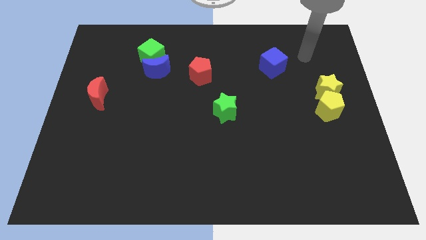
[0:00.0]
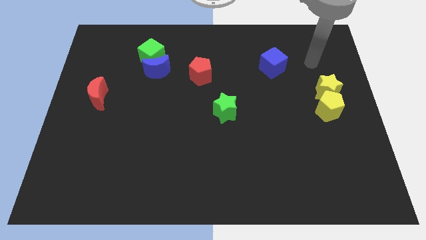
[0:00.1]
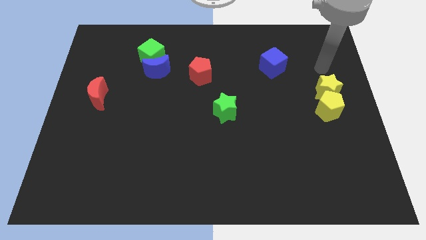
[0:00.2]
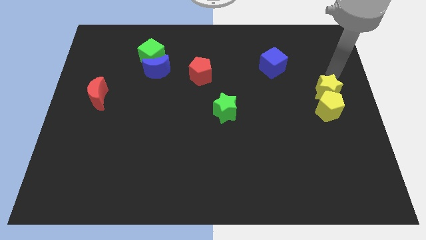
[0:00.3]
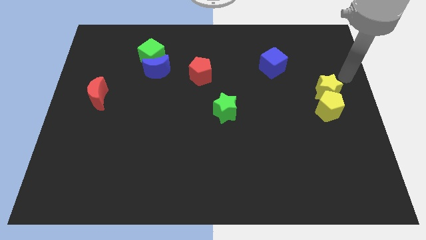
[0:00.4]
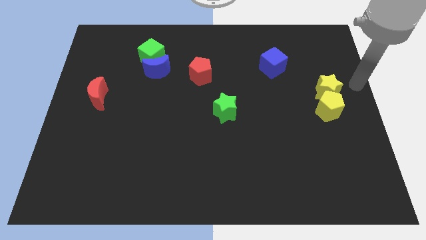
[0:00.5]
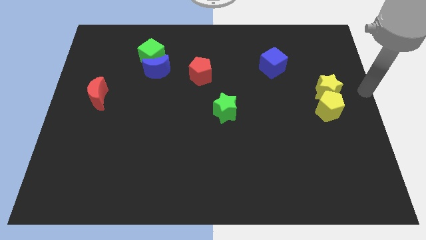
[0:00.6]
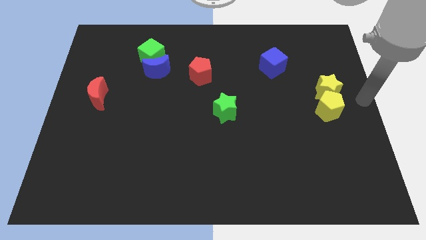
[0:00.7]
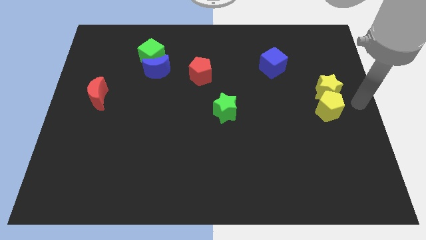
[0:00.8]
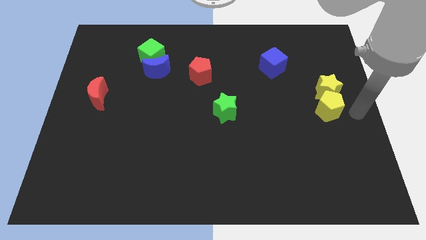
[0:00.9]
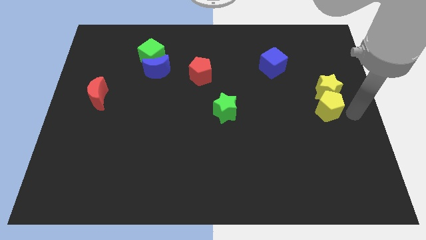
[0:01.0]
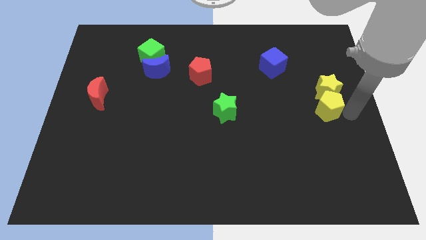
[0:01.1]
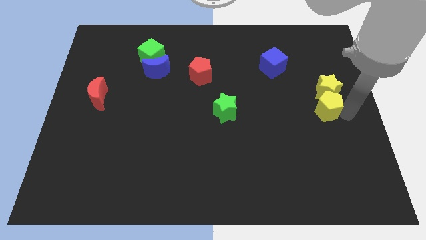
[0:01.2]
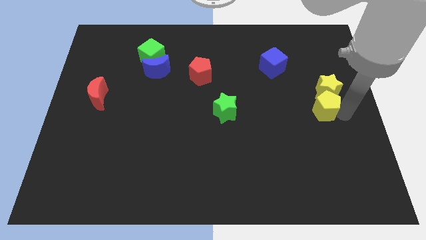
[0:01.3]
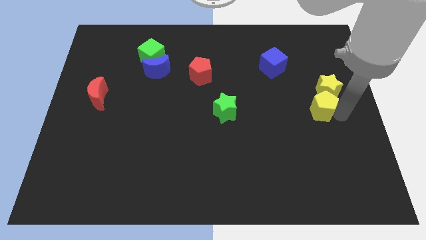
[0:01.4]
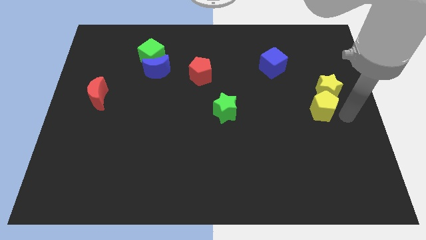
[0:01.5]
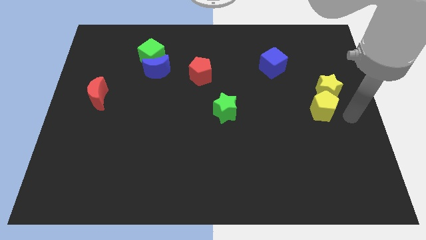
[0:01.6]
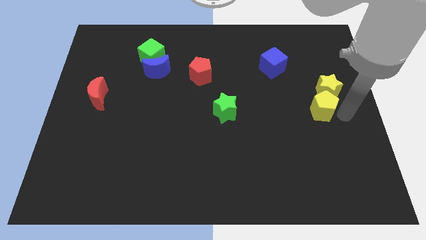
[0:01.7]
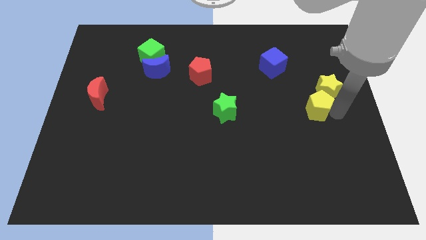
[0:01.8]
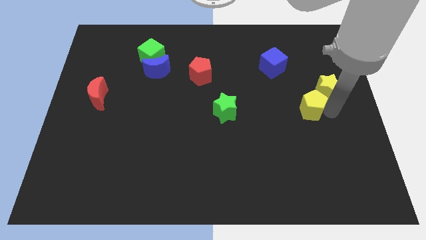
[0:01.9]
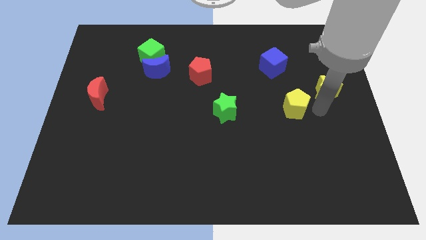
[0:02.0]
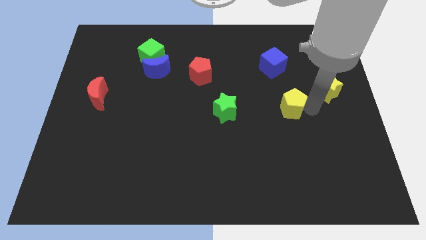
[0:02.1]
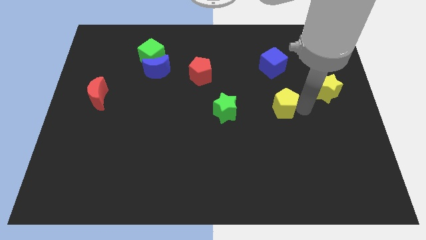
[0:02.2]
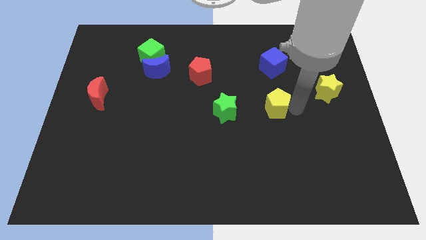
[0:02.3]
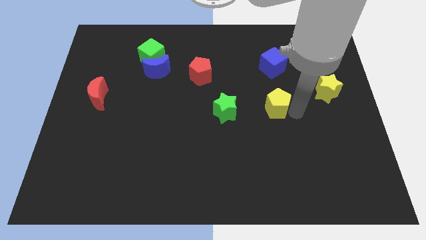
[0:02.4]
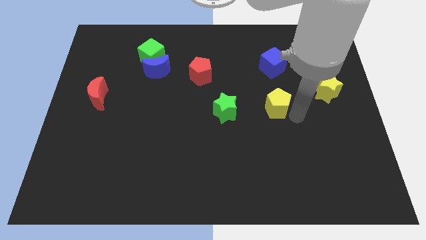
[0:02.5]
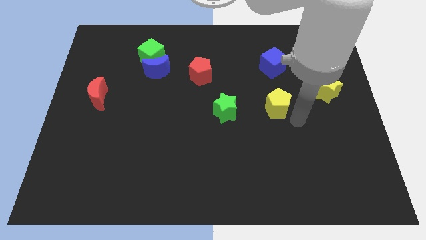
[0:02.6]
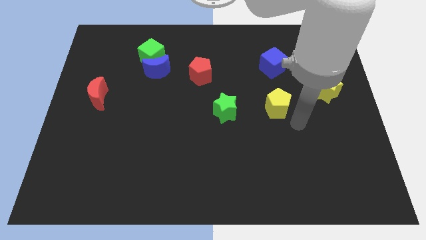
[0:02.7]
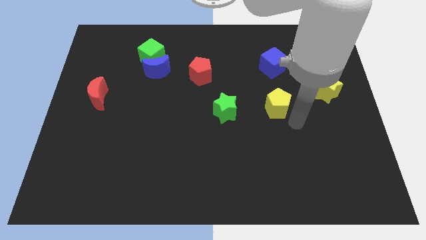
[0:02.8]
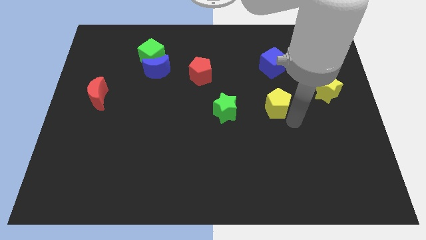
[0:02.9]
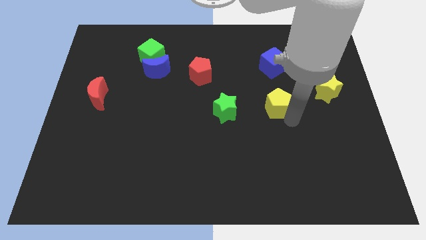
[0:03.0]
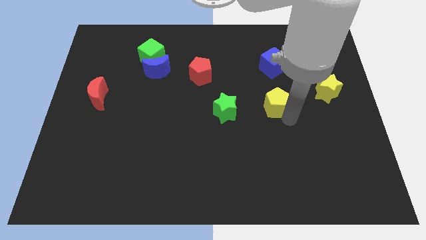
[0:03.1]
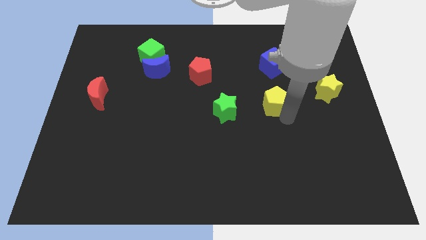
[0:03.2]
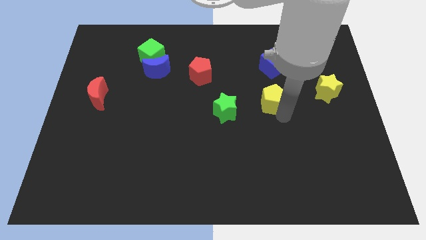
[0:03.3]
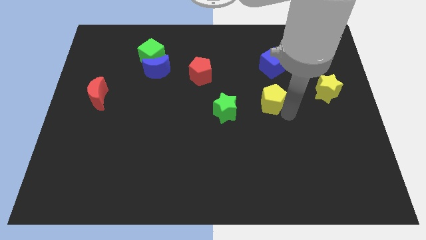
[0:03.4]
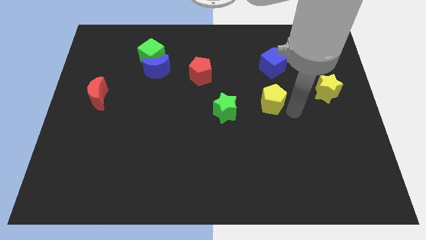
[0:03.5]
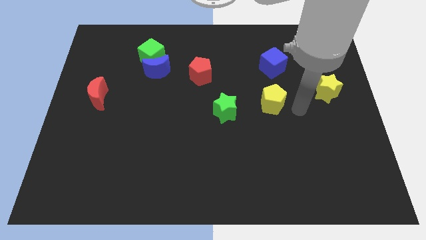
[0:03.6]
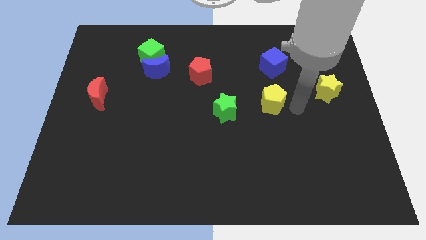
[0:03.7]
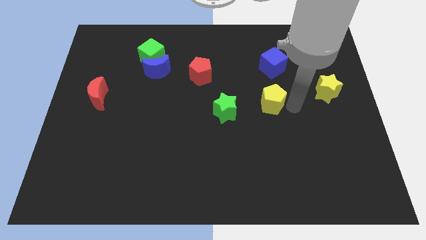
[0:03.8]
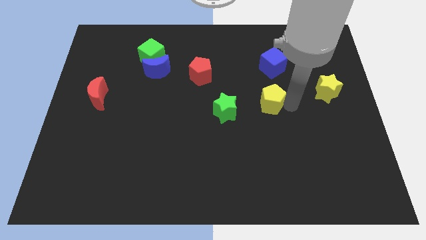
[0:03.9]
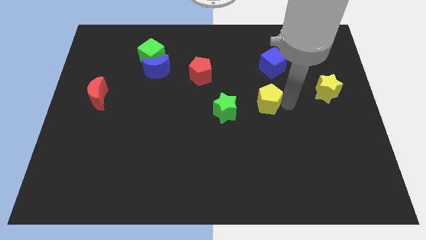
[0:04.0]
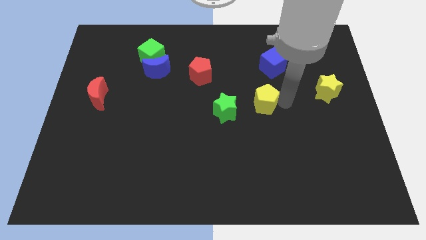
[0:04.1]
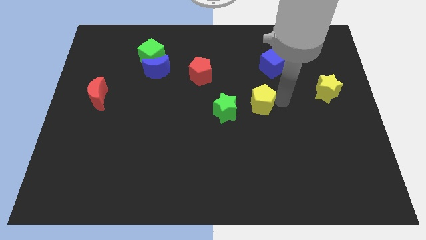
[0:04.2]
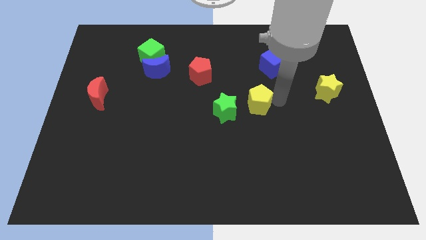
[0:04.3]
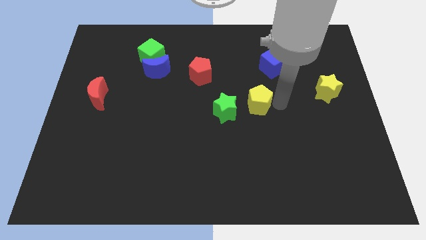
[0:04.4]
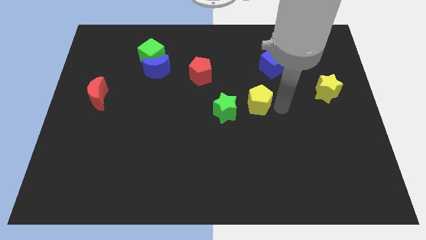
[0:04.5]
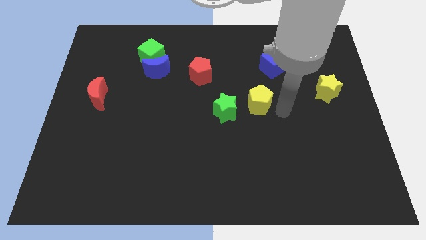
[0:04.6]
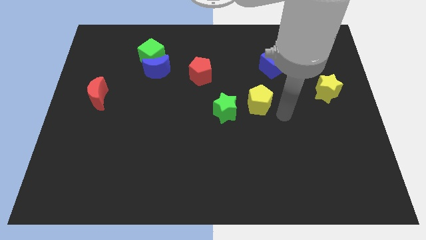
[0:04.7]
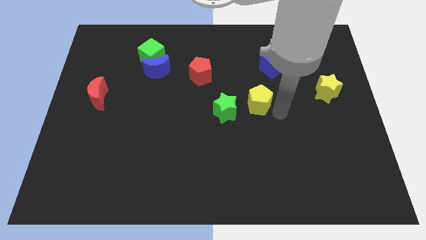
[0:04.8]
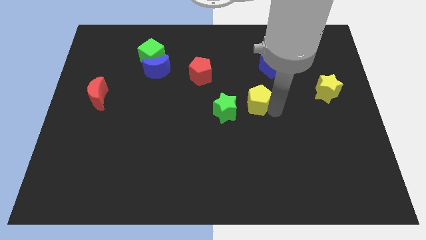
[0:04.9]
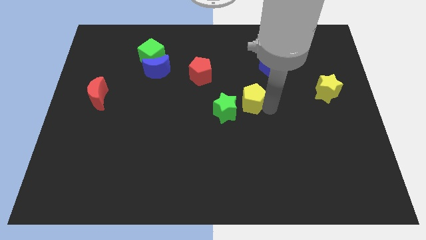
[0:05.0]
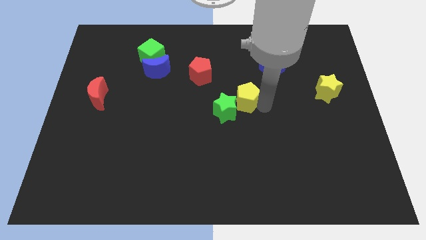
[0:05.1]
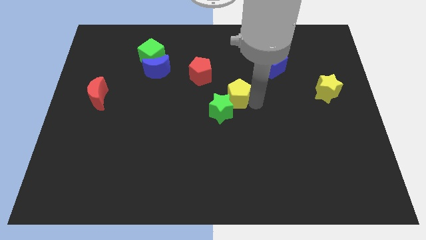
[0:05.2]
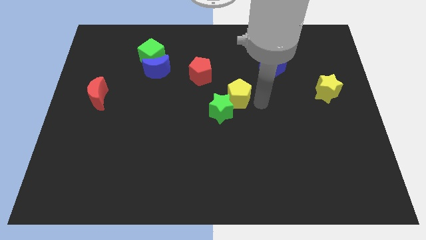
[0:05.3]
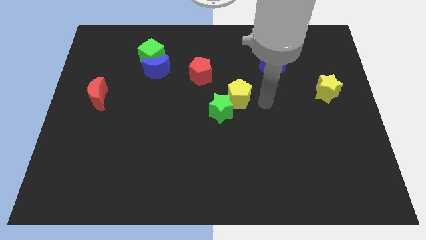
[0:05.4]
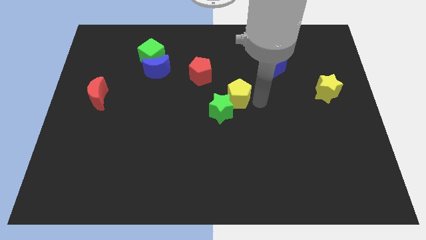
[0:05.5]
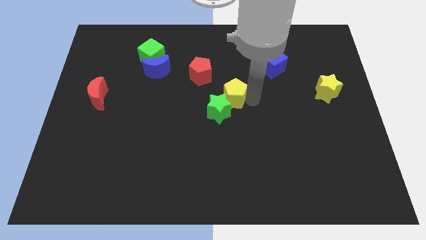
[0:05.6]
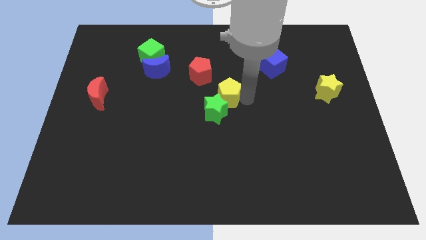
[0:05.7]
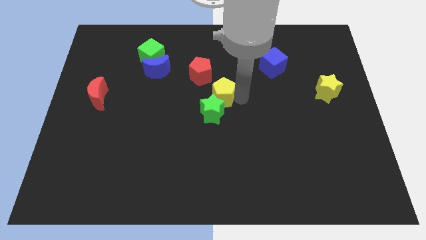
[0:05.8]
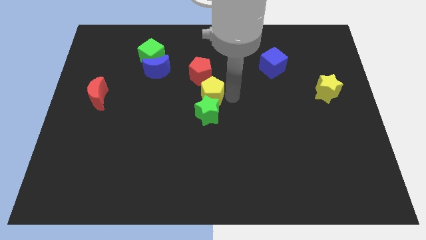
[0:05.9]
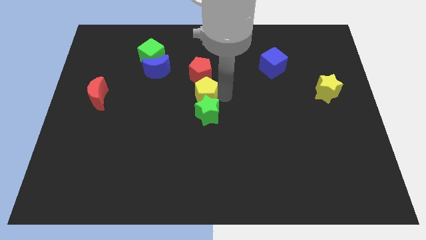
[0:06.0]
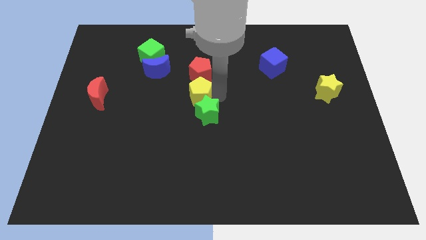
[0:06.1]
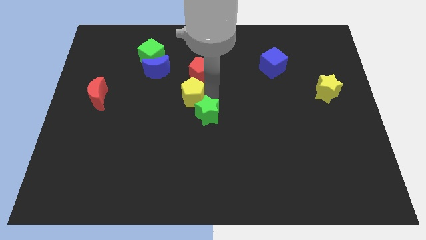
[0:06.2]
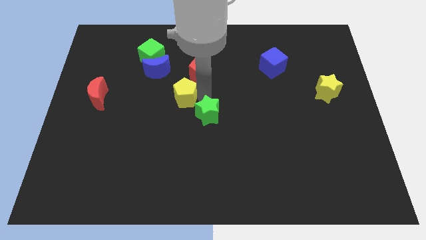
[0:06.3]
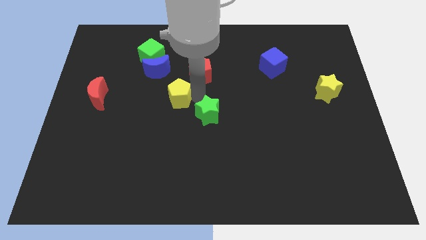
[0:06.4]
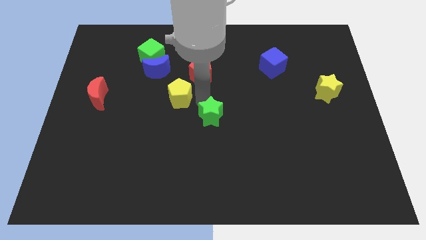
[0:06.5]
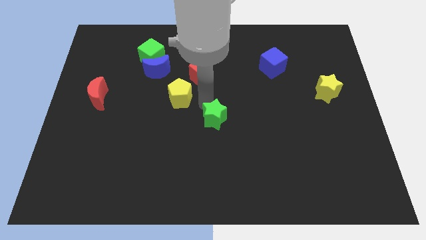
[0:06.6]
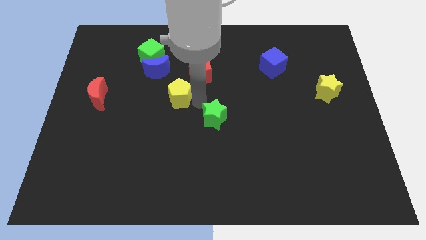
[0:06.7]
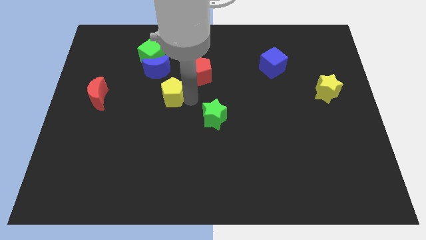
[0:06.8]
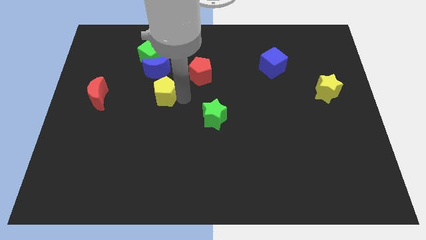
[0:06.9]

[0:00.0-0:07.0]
slide the yellow pentagon to the bottom of the green cube

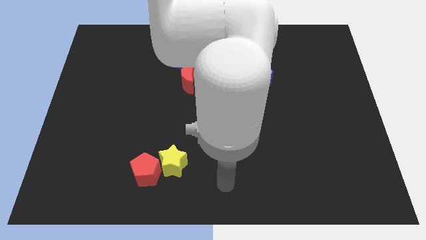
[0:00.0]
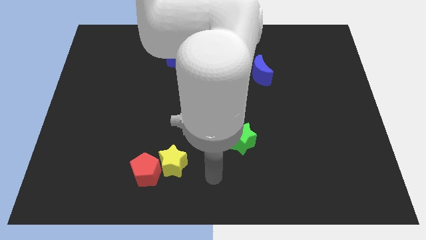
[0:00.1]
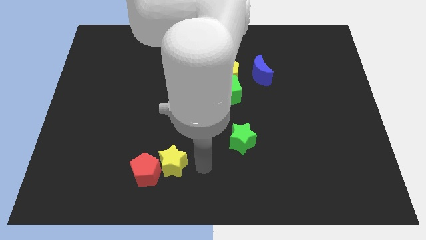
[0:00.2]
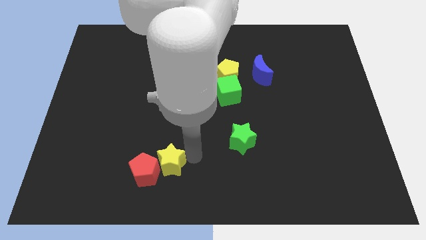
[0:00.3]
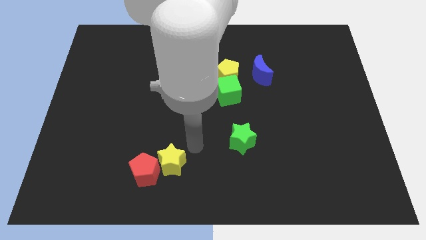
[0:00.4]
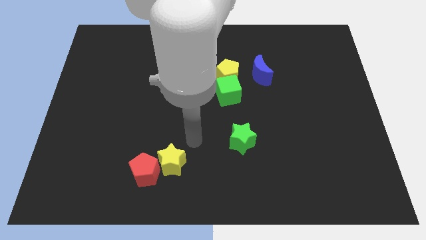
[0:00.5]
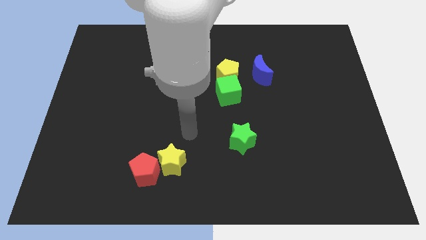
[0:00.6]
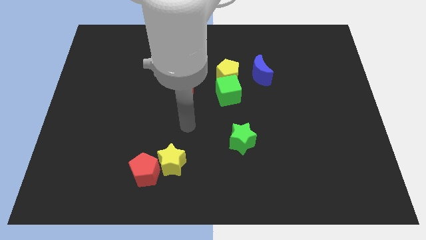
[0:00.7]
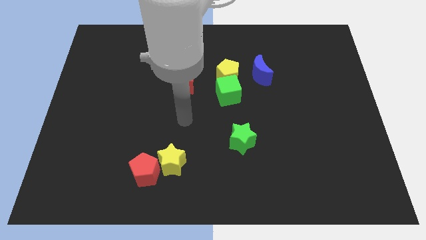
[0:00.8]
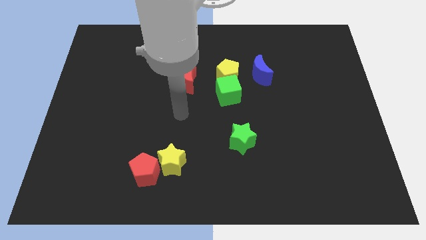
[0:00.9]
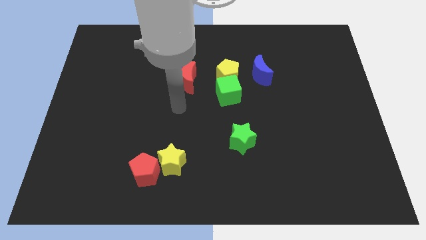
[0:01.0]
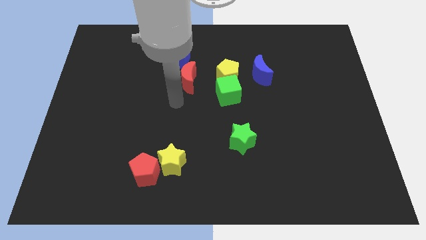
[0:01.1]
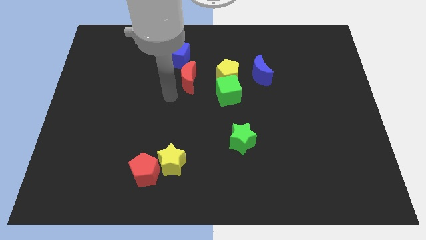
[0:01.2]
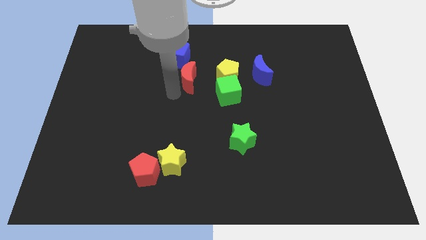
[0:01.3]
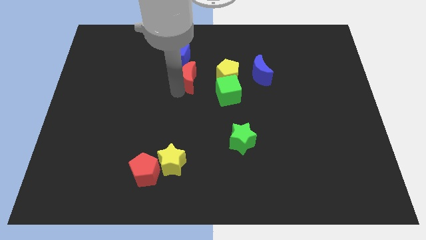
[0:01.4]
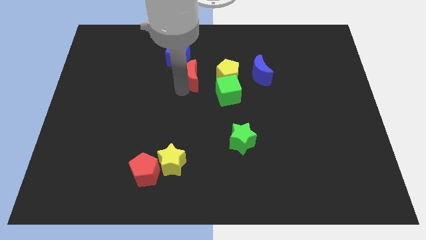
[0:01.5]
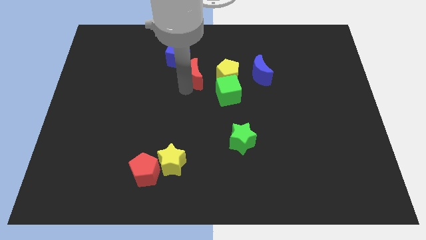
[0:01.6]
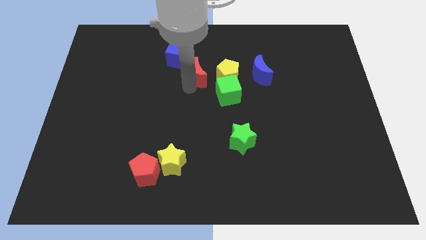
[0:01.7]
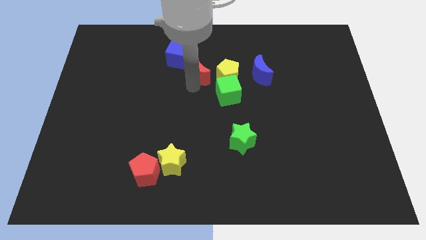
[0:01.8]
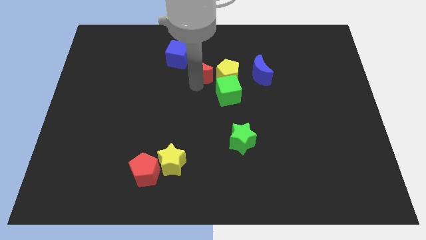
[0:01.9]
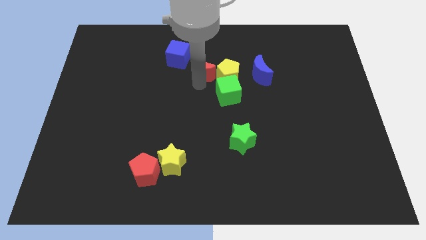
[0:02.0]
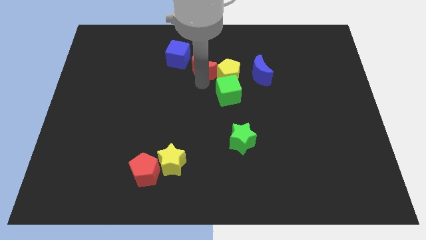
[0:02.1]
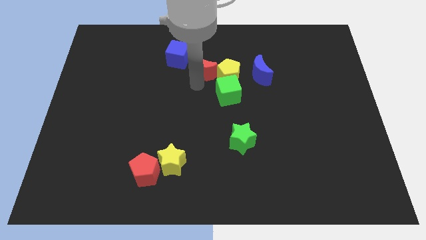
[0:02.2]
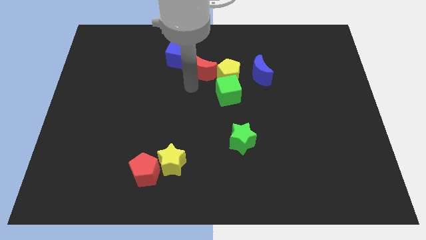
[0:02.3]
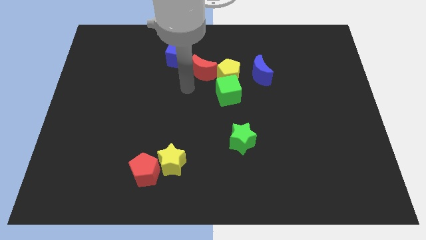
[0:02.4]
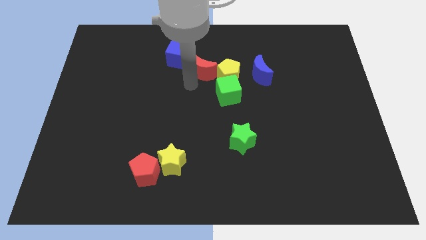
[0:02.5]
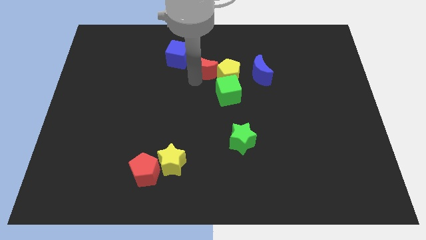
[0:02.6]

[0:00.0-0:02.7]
slide the red moon to the right side of the blue cube
